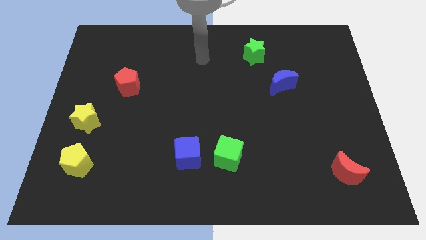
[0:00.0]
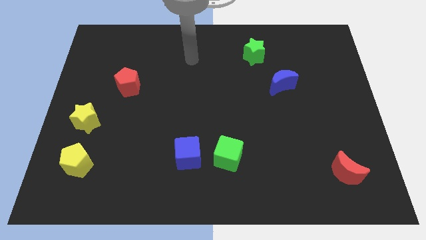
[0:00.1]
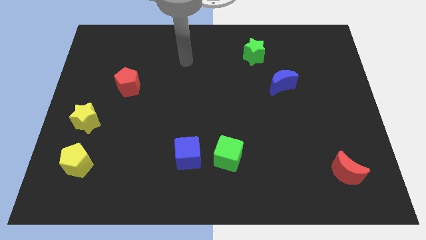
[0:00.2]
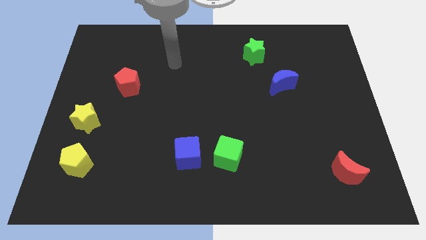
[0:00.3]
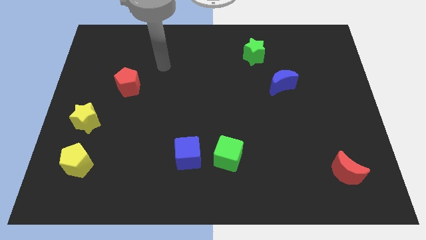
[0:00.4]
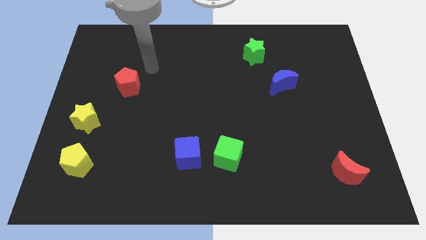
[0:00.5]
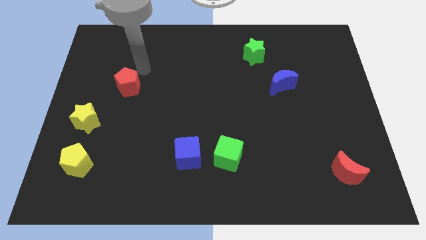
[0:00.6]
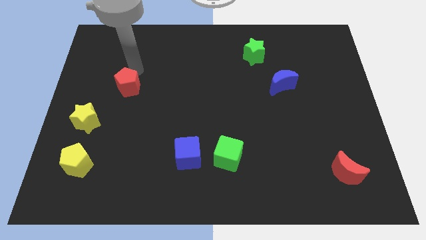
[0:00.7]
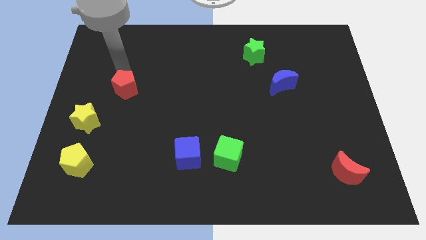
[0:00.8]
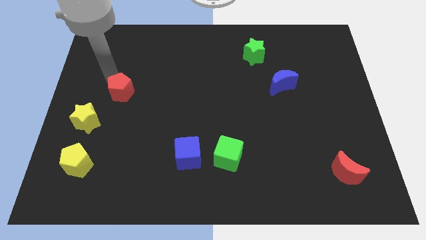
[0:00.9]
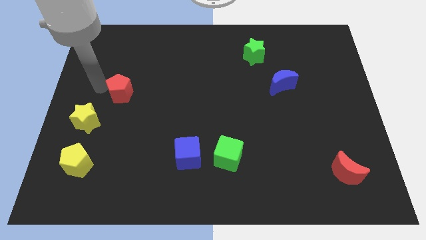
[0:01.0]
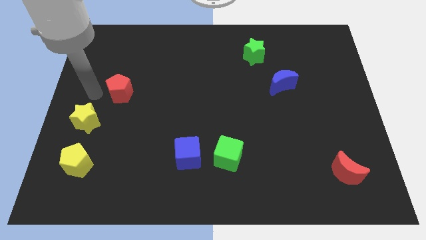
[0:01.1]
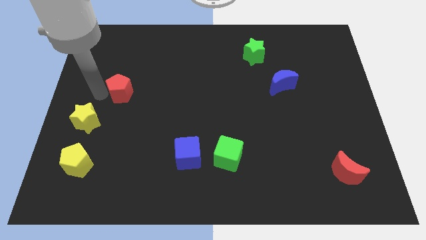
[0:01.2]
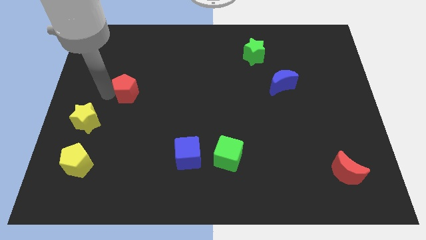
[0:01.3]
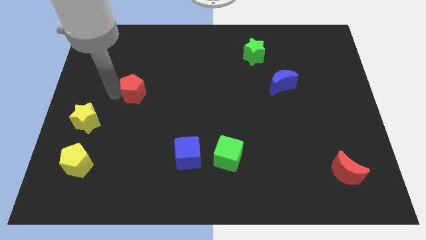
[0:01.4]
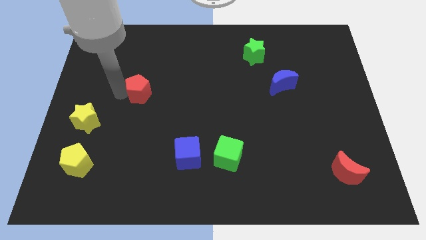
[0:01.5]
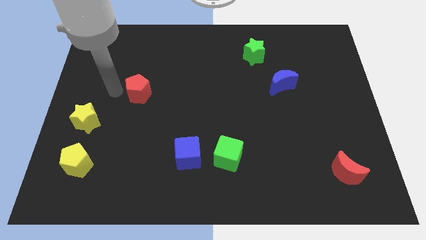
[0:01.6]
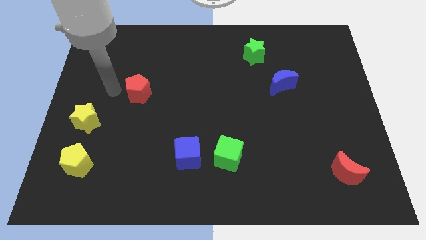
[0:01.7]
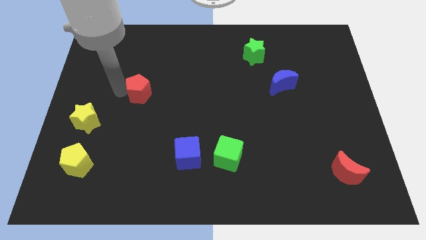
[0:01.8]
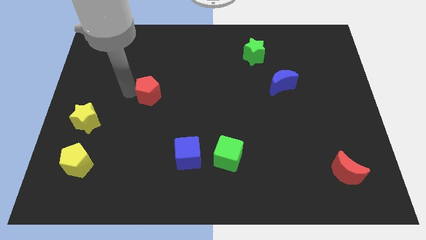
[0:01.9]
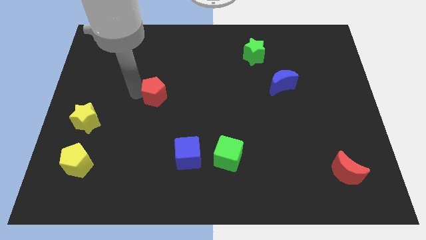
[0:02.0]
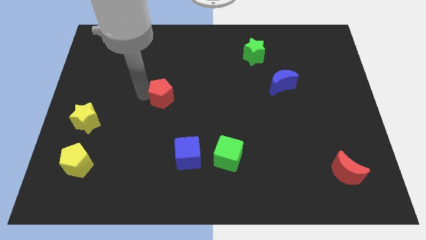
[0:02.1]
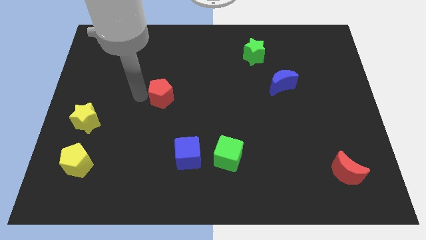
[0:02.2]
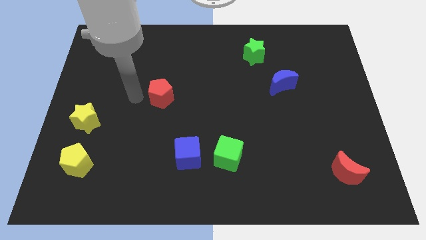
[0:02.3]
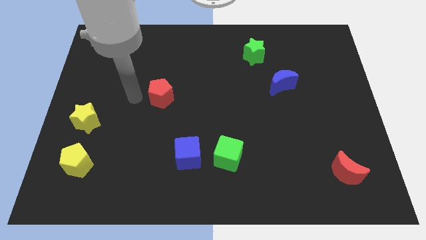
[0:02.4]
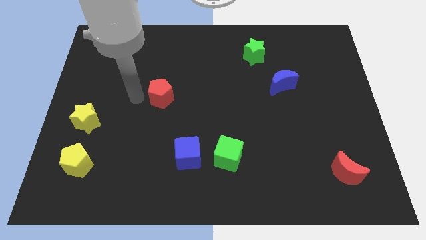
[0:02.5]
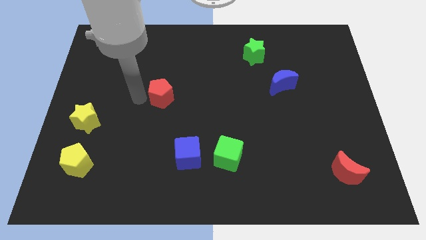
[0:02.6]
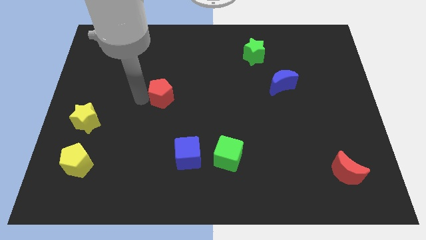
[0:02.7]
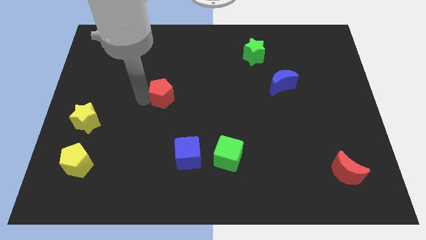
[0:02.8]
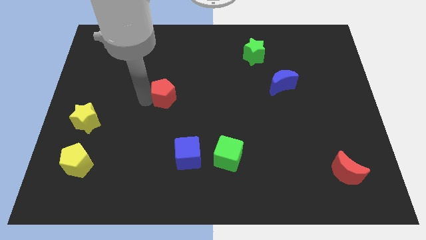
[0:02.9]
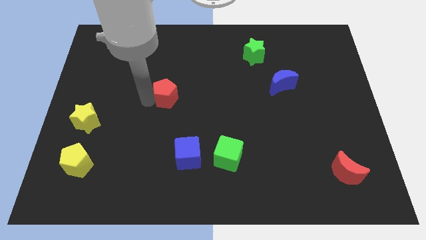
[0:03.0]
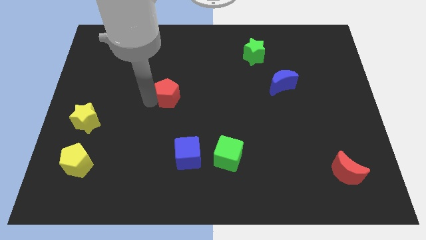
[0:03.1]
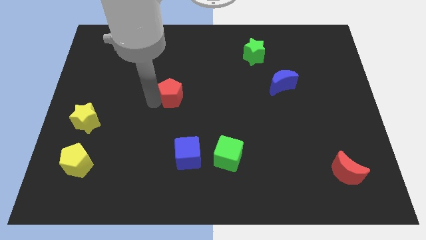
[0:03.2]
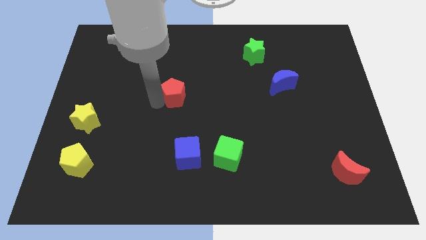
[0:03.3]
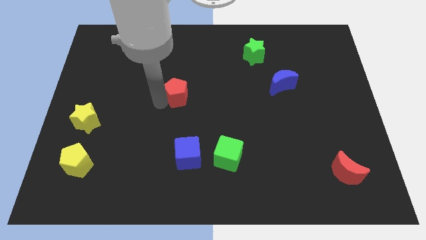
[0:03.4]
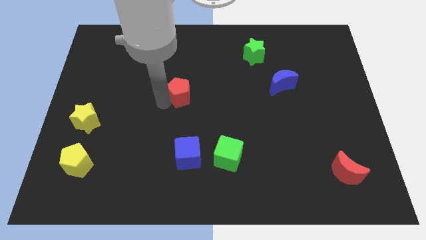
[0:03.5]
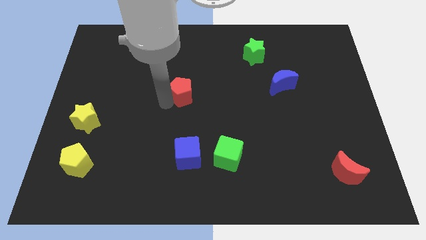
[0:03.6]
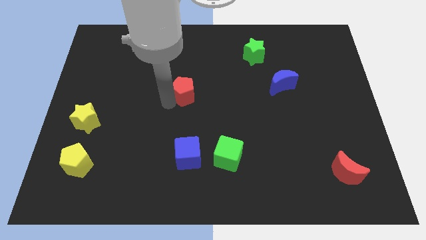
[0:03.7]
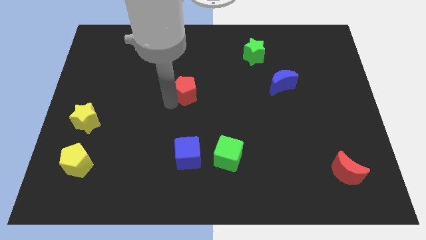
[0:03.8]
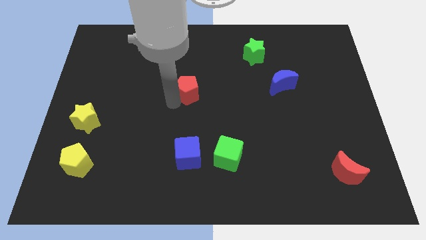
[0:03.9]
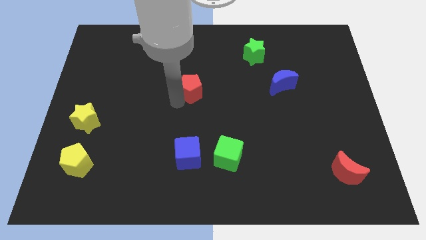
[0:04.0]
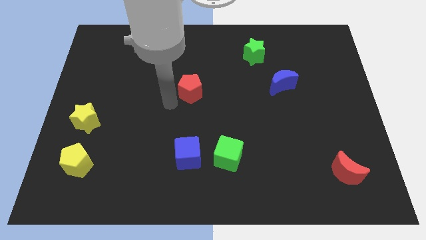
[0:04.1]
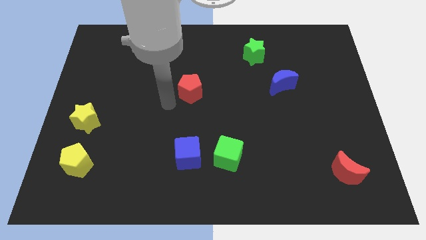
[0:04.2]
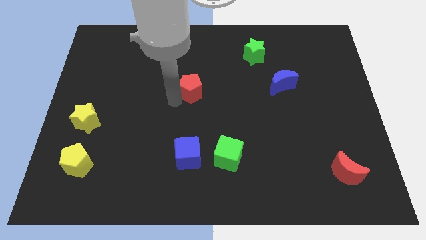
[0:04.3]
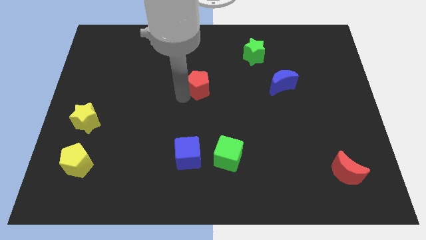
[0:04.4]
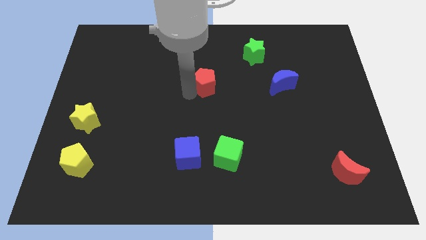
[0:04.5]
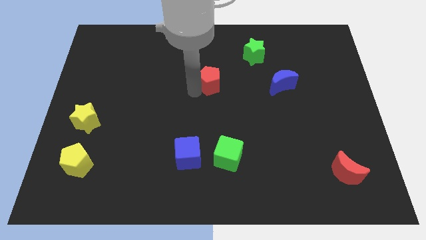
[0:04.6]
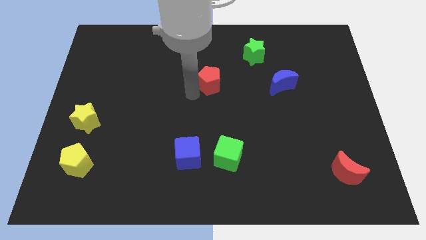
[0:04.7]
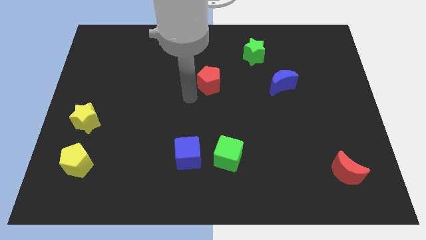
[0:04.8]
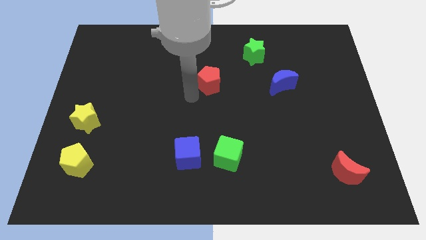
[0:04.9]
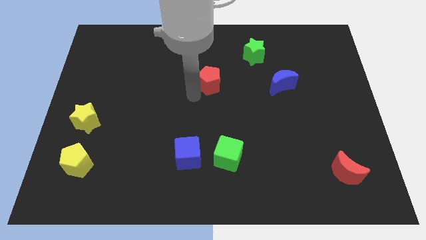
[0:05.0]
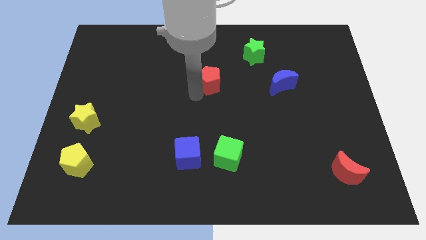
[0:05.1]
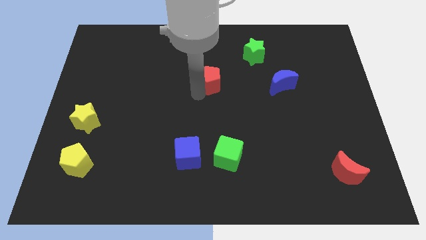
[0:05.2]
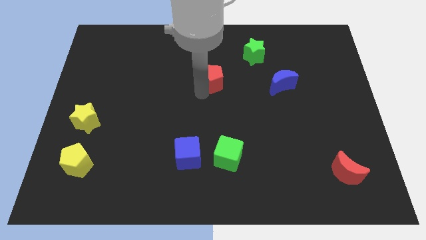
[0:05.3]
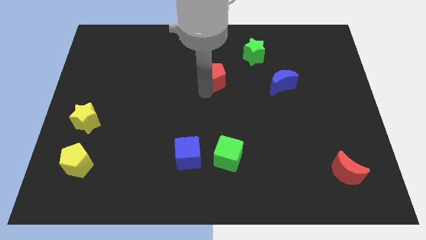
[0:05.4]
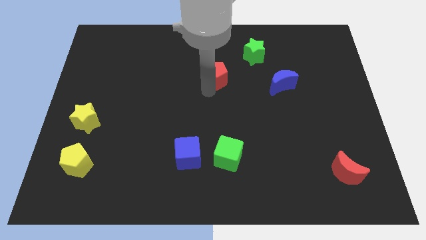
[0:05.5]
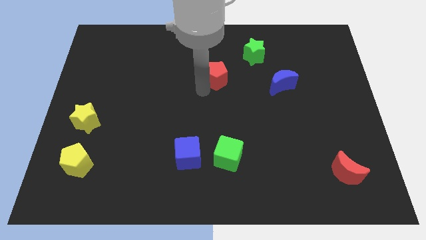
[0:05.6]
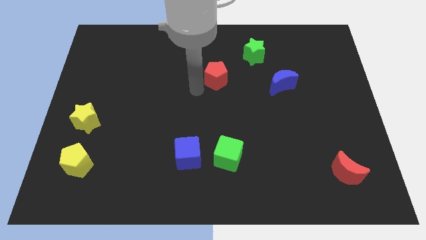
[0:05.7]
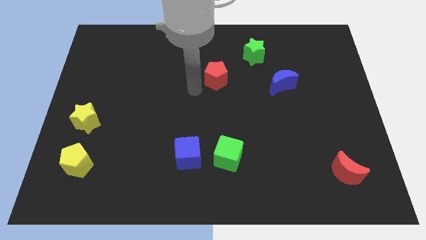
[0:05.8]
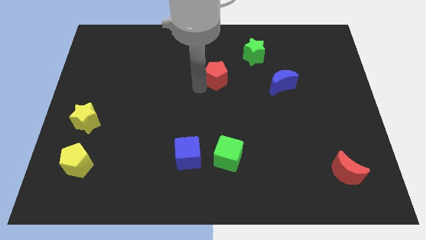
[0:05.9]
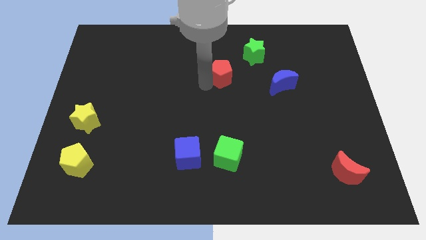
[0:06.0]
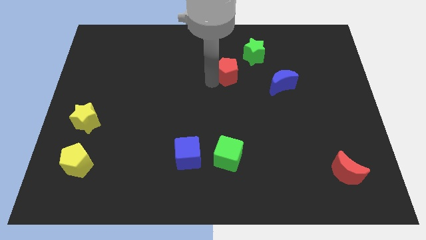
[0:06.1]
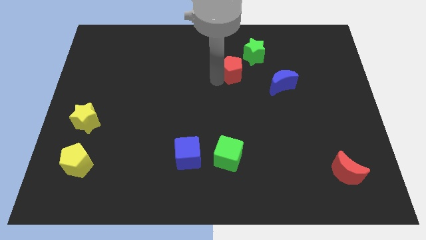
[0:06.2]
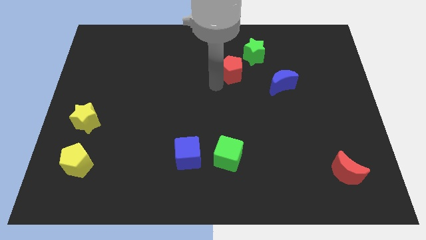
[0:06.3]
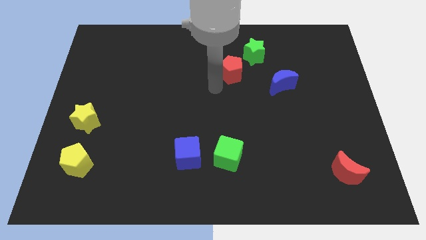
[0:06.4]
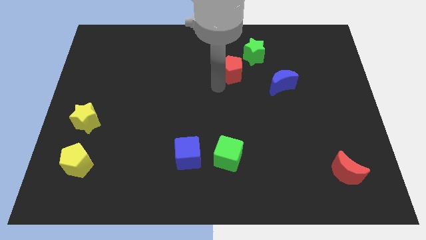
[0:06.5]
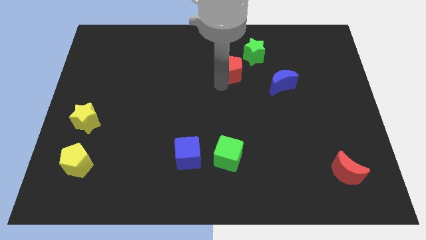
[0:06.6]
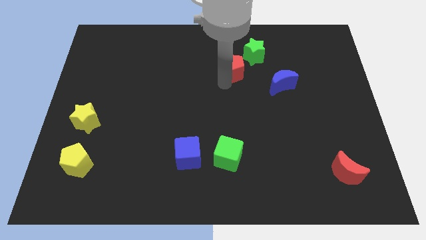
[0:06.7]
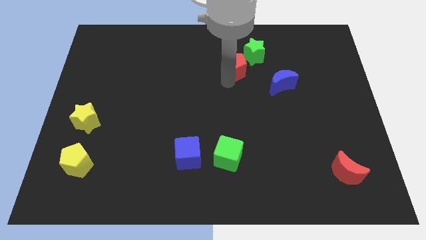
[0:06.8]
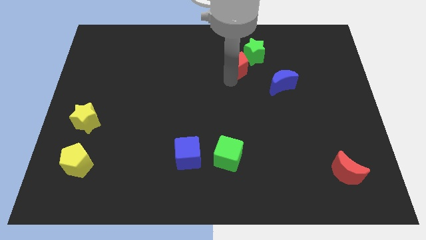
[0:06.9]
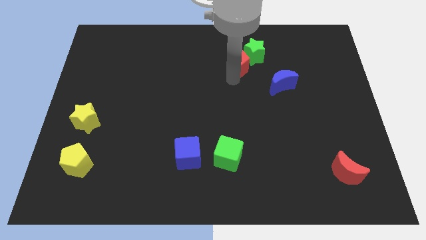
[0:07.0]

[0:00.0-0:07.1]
move the red pentagon close to the green star
